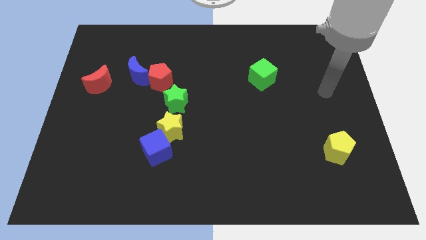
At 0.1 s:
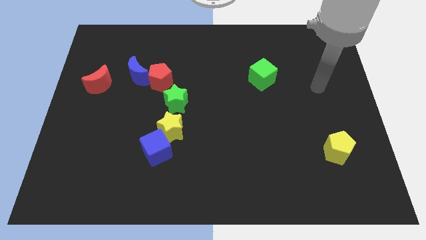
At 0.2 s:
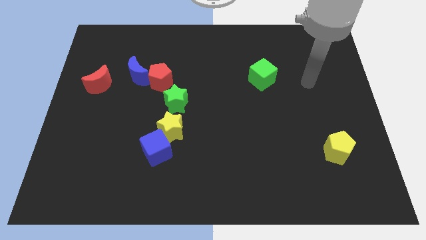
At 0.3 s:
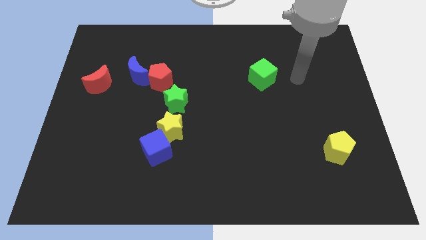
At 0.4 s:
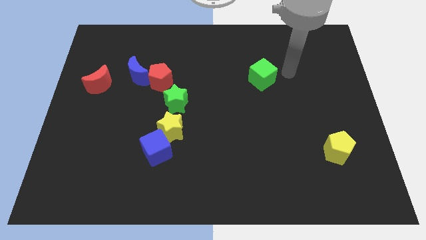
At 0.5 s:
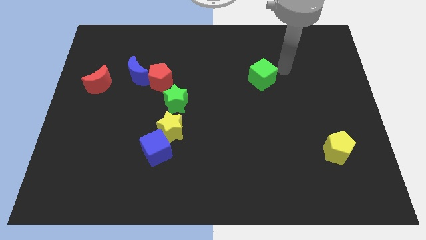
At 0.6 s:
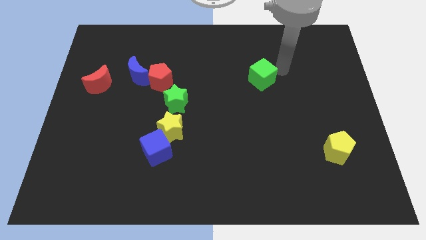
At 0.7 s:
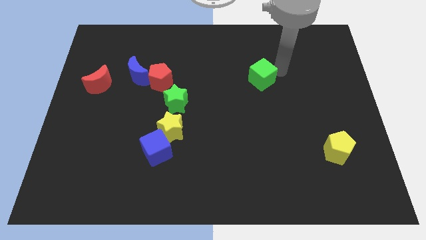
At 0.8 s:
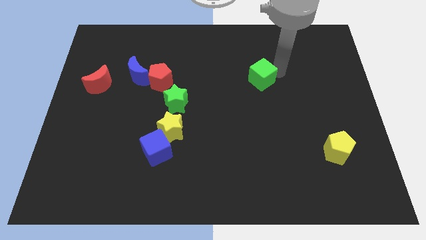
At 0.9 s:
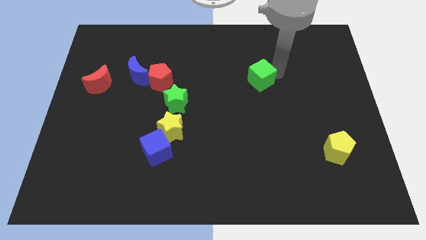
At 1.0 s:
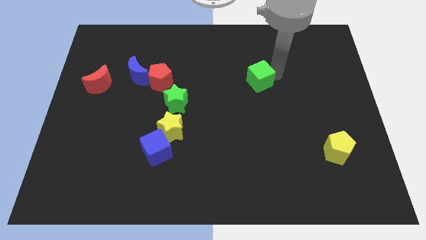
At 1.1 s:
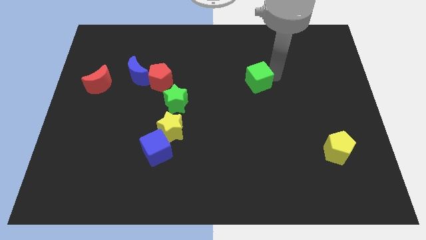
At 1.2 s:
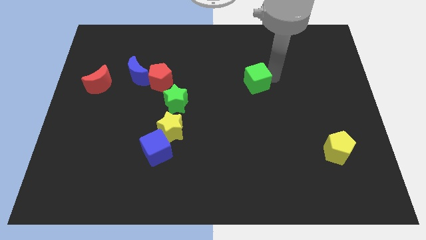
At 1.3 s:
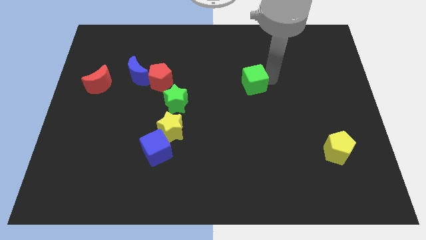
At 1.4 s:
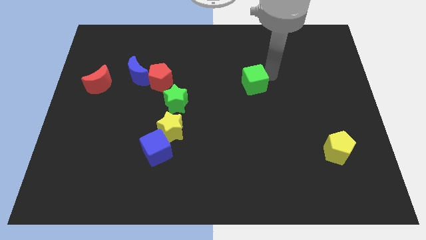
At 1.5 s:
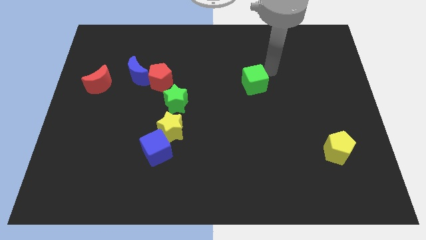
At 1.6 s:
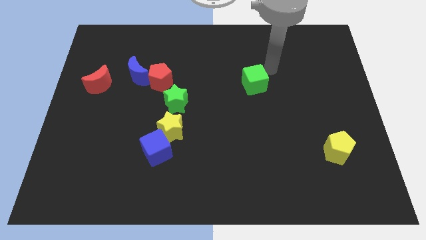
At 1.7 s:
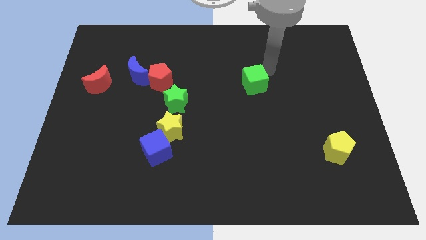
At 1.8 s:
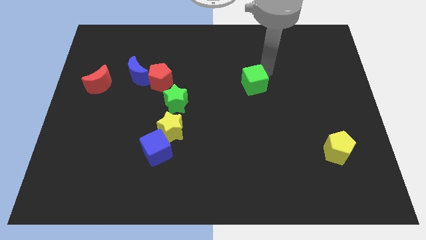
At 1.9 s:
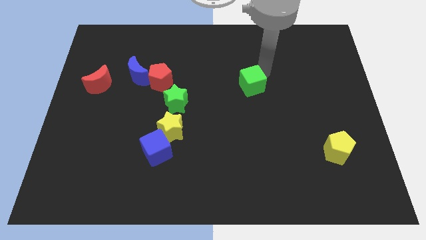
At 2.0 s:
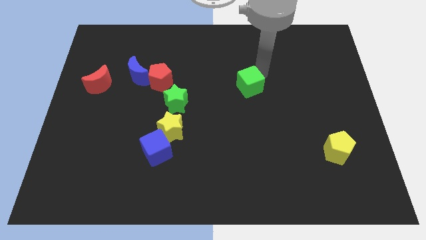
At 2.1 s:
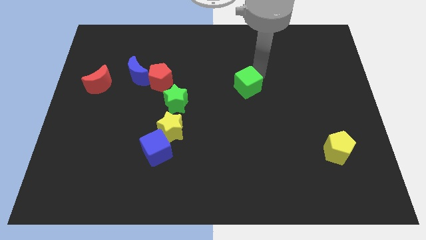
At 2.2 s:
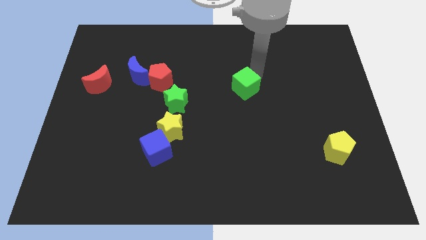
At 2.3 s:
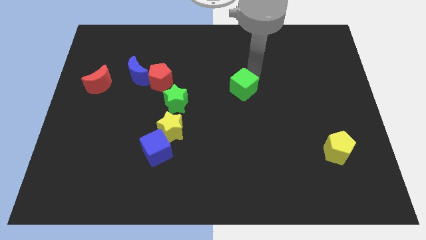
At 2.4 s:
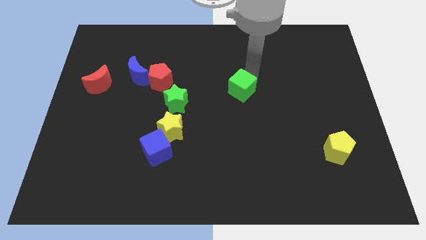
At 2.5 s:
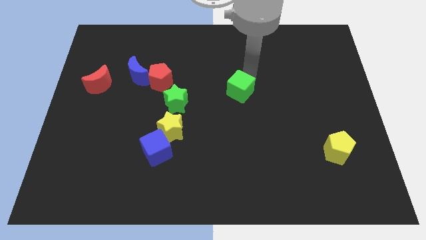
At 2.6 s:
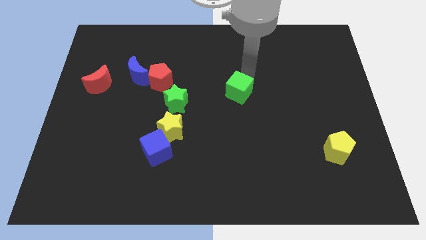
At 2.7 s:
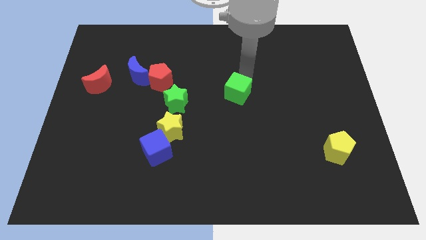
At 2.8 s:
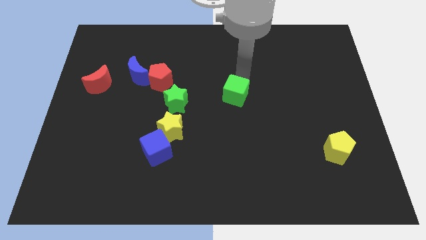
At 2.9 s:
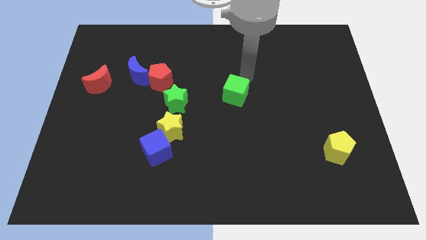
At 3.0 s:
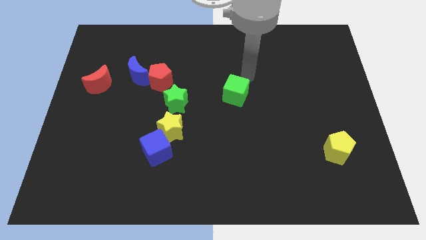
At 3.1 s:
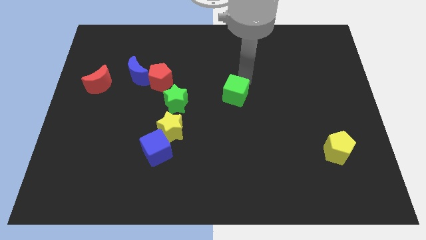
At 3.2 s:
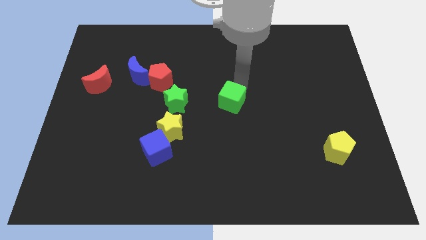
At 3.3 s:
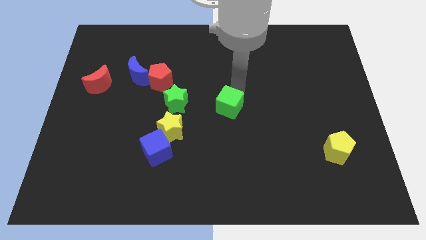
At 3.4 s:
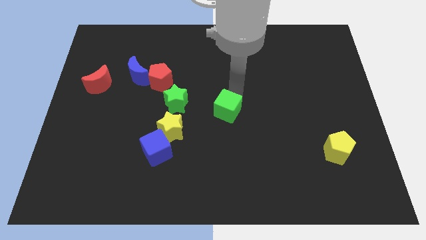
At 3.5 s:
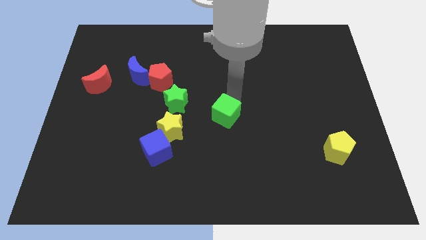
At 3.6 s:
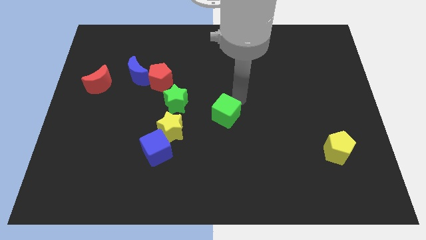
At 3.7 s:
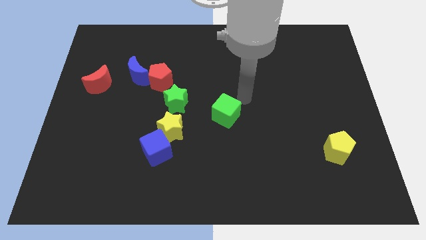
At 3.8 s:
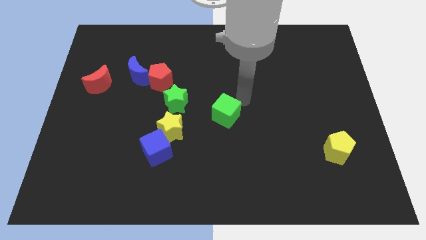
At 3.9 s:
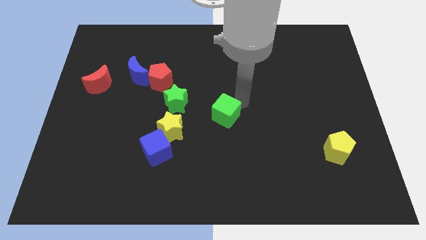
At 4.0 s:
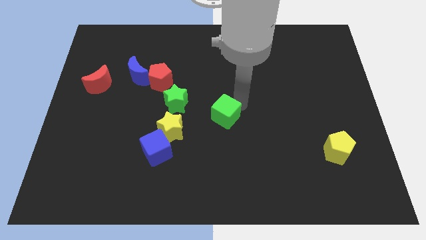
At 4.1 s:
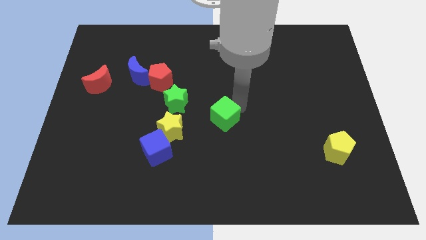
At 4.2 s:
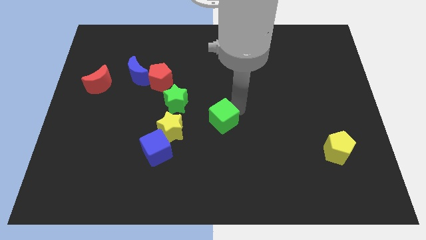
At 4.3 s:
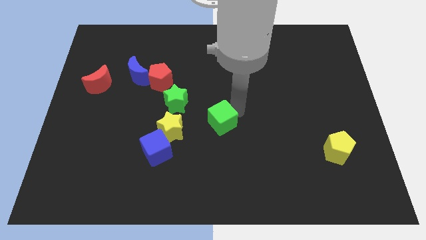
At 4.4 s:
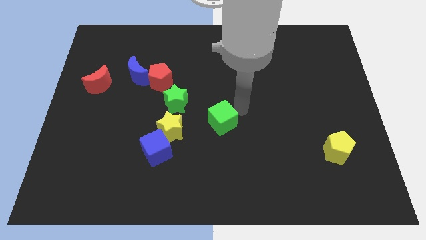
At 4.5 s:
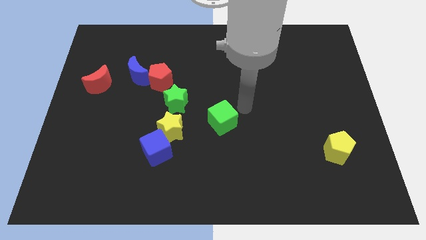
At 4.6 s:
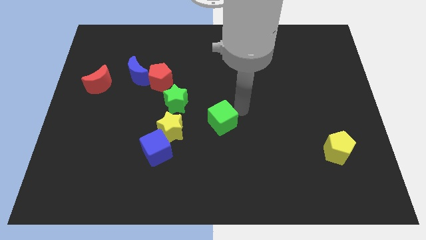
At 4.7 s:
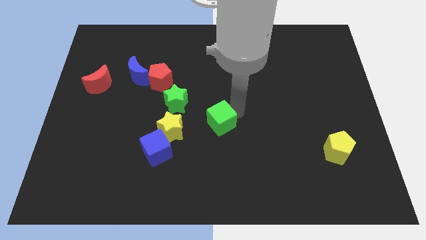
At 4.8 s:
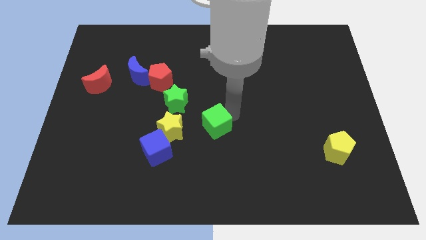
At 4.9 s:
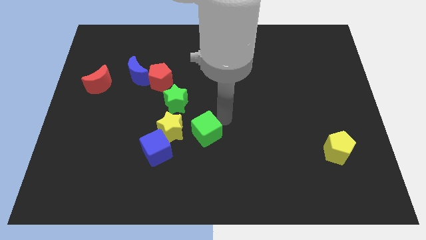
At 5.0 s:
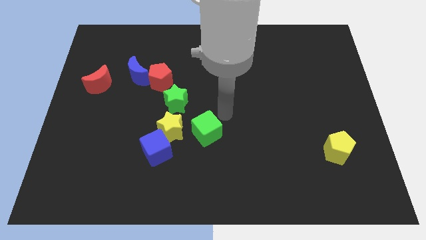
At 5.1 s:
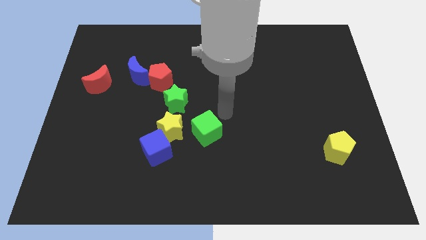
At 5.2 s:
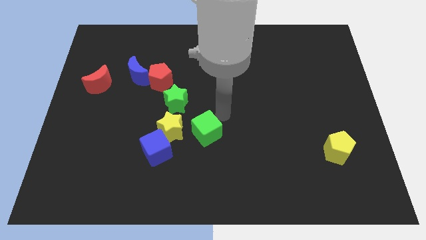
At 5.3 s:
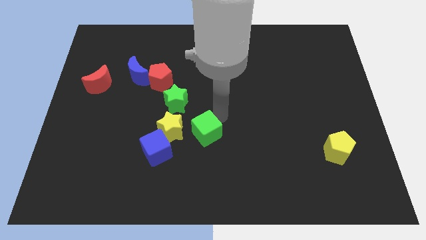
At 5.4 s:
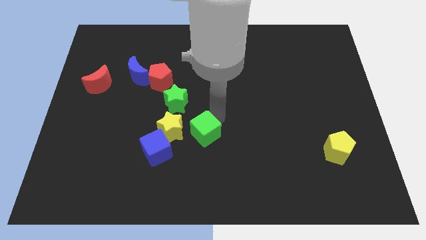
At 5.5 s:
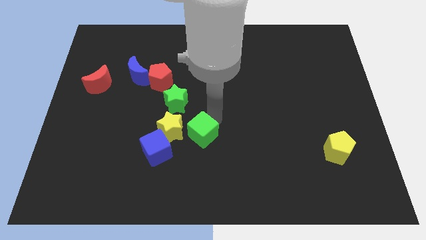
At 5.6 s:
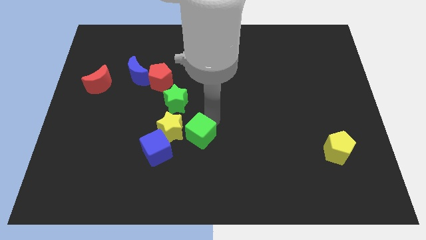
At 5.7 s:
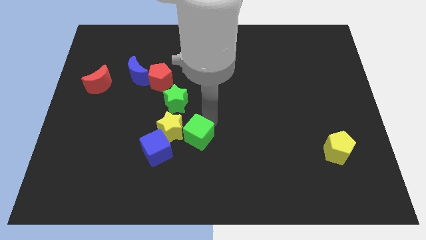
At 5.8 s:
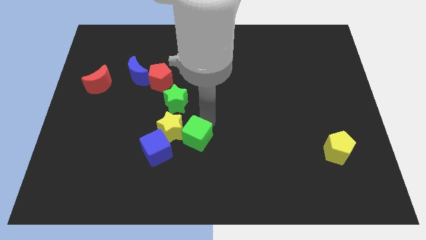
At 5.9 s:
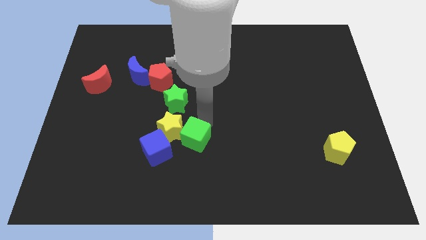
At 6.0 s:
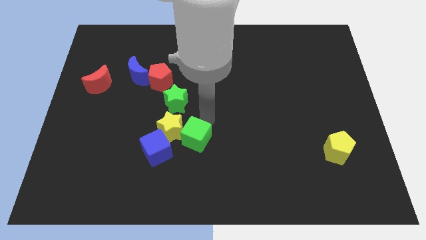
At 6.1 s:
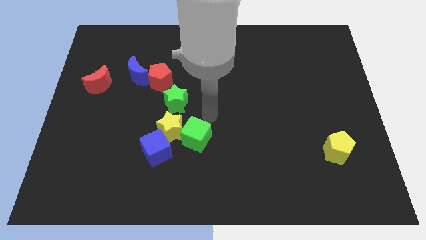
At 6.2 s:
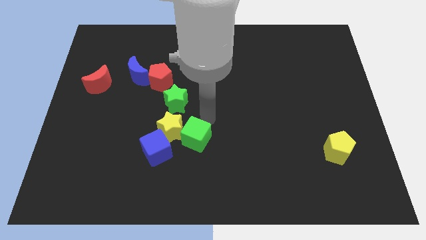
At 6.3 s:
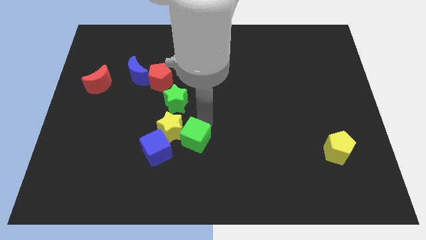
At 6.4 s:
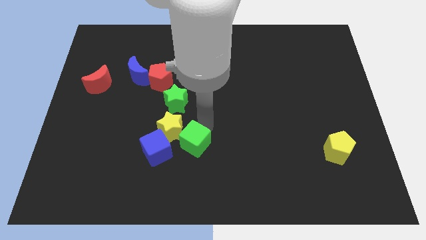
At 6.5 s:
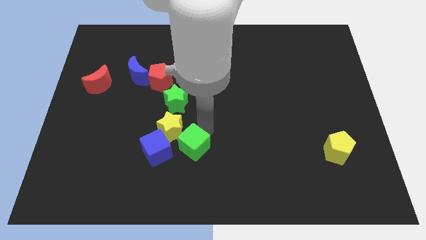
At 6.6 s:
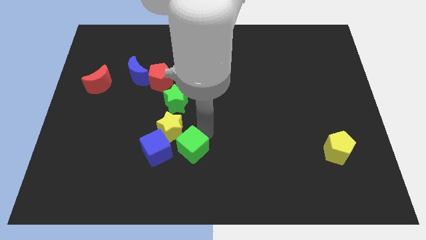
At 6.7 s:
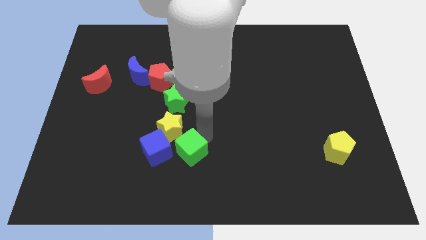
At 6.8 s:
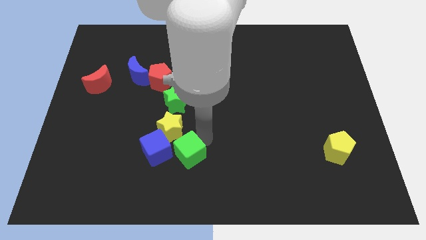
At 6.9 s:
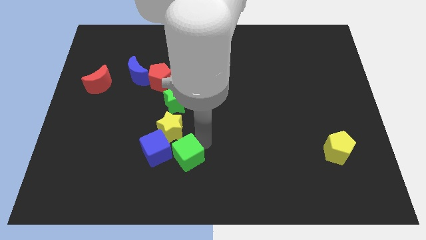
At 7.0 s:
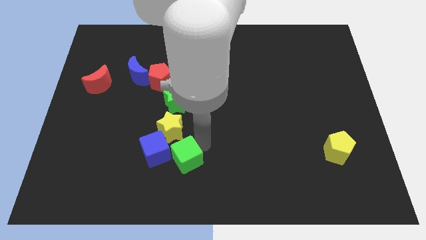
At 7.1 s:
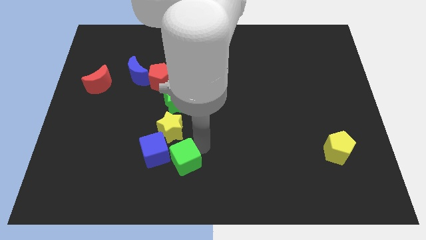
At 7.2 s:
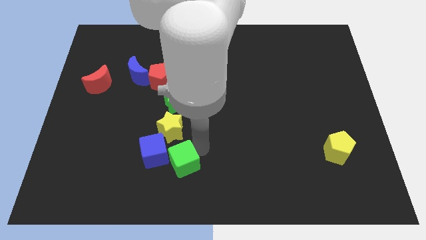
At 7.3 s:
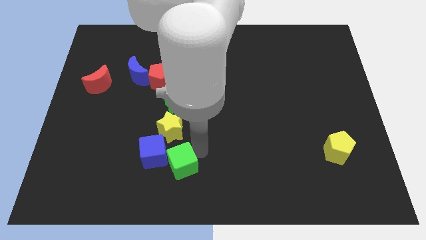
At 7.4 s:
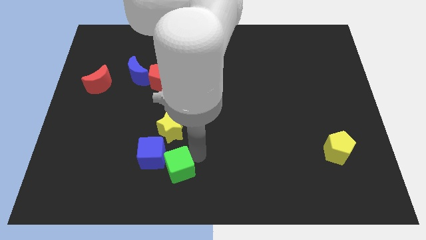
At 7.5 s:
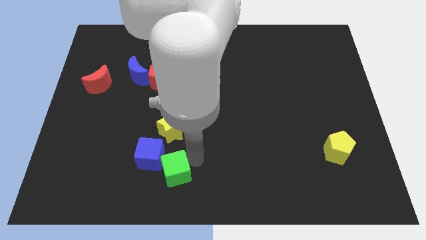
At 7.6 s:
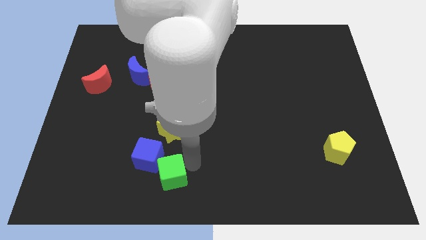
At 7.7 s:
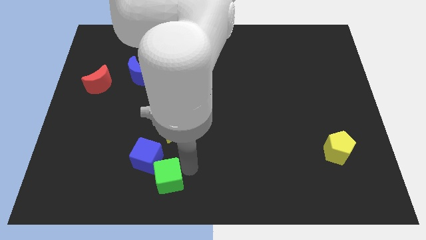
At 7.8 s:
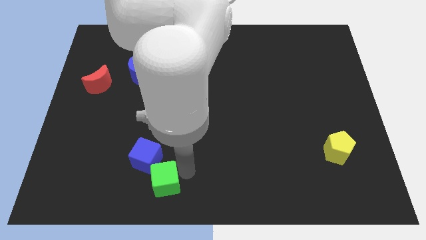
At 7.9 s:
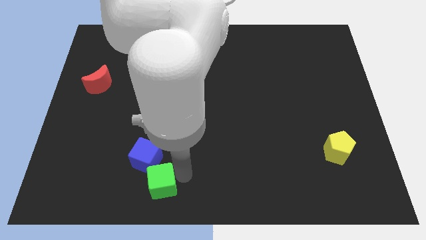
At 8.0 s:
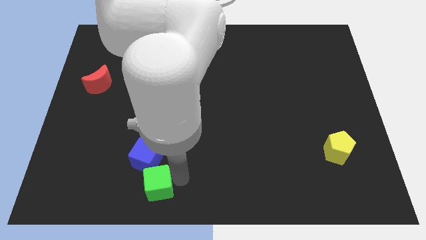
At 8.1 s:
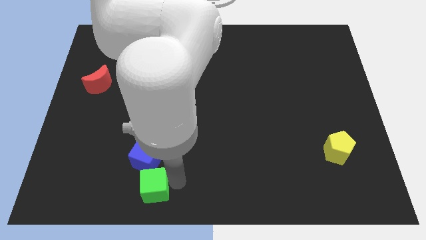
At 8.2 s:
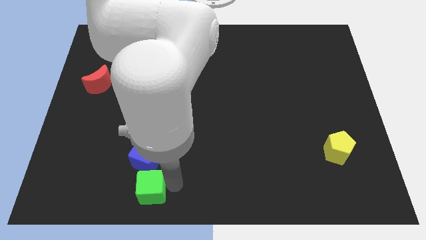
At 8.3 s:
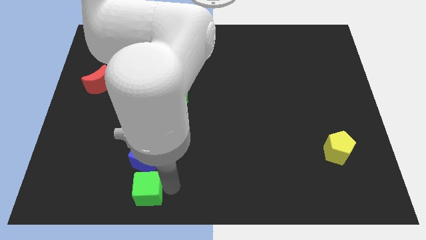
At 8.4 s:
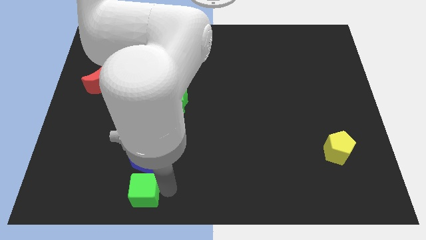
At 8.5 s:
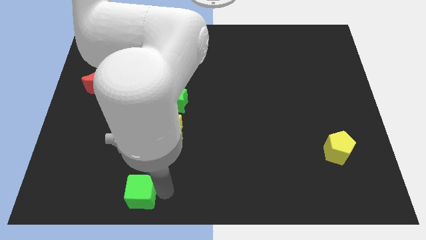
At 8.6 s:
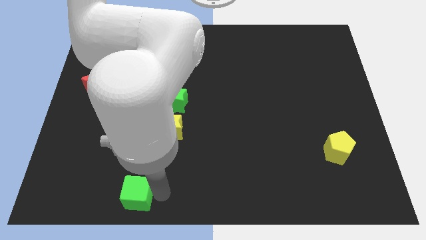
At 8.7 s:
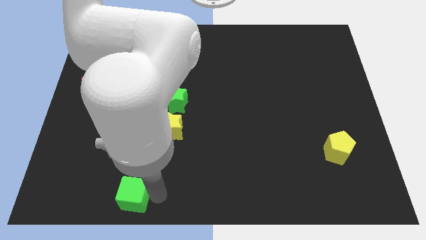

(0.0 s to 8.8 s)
push the green cube to the bottom left of the blue cube
